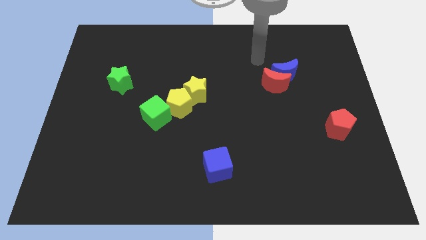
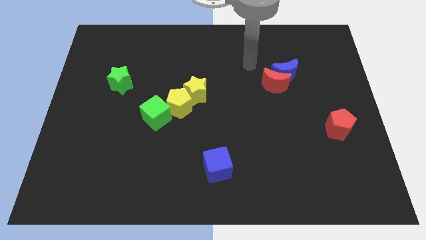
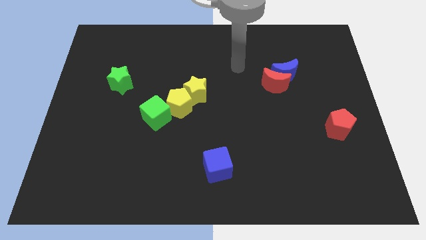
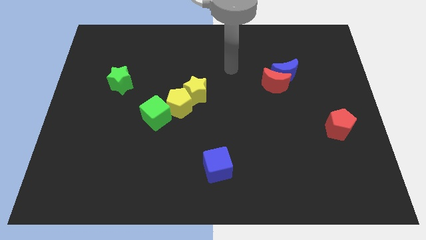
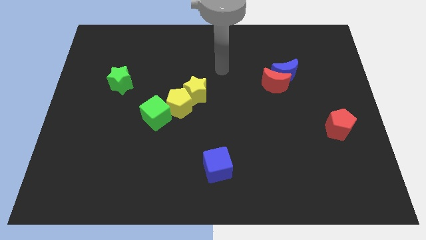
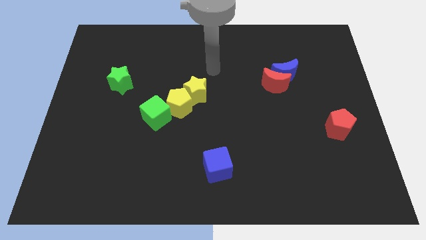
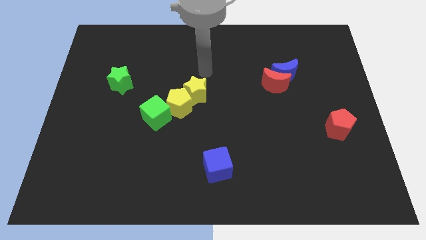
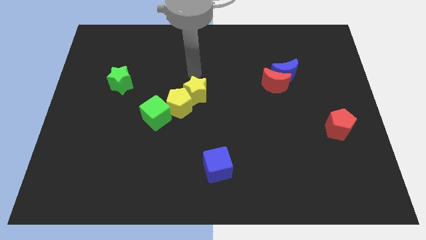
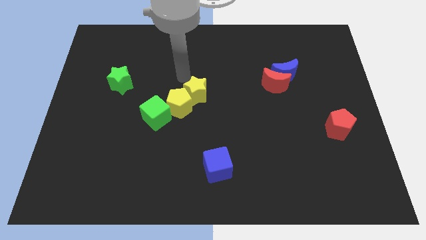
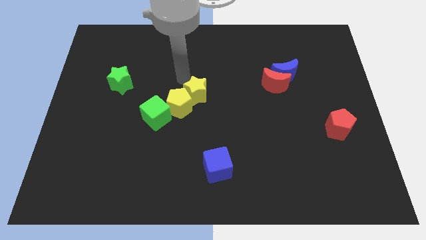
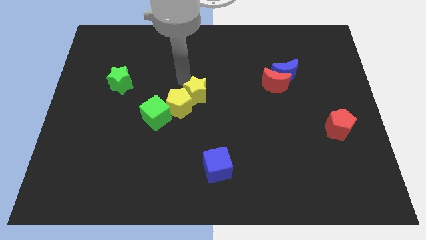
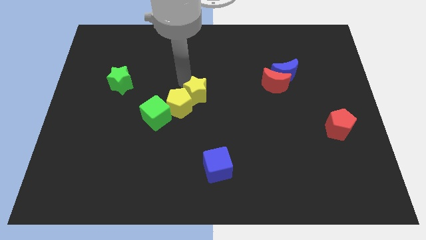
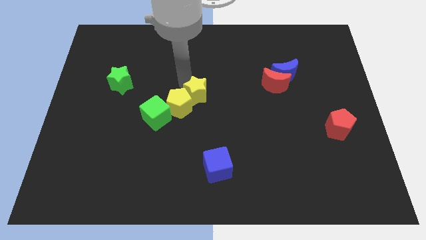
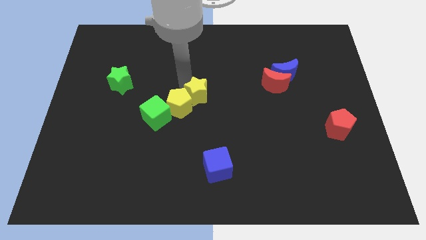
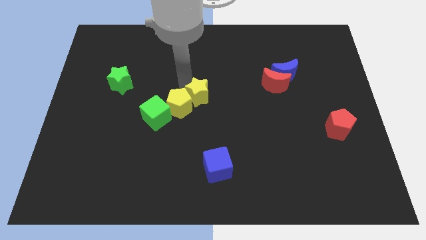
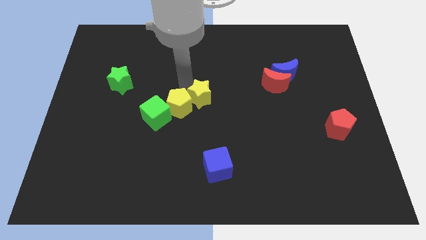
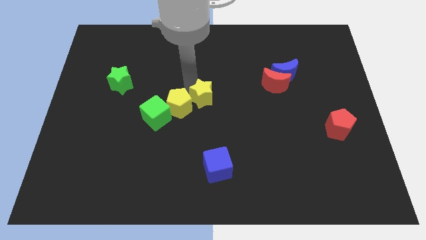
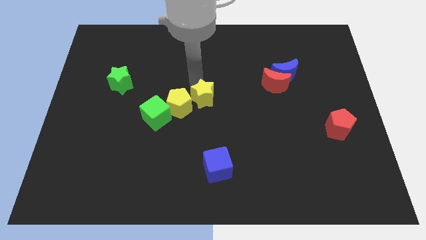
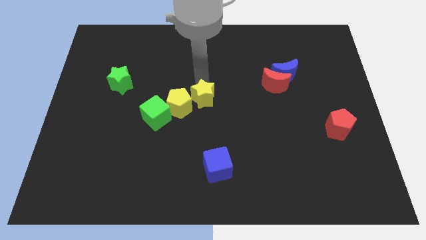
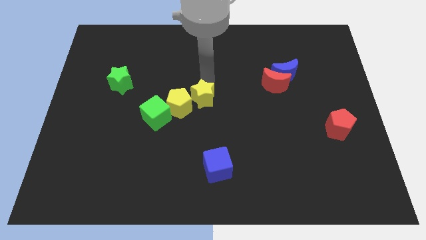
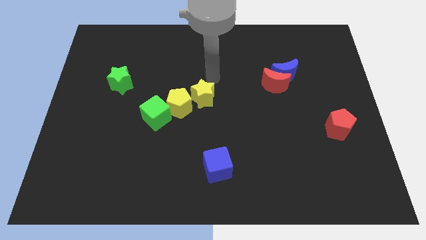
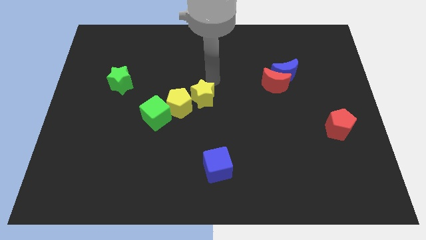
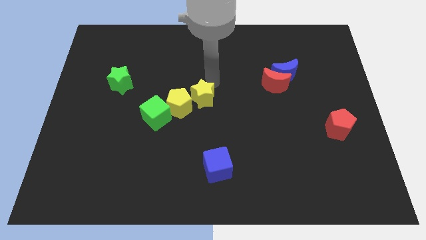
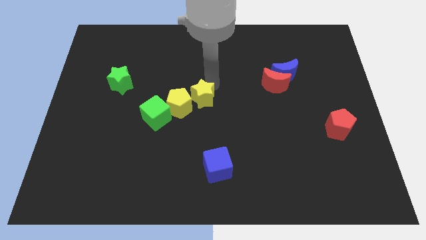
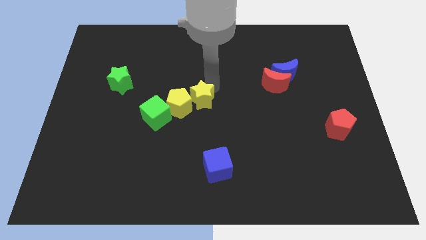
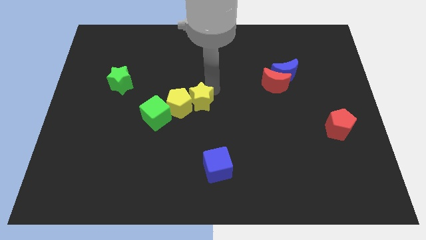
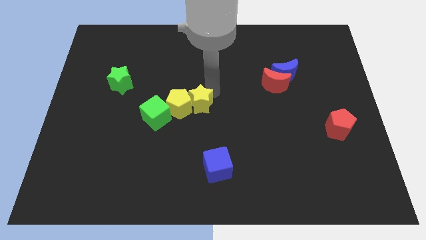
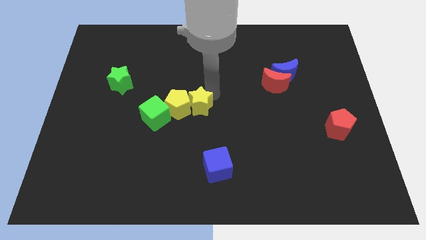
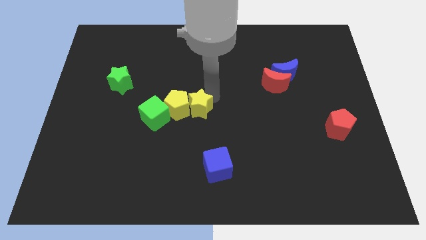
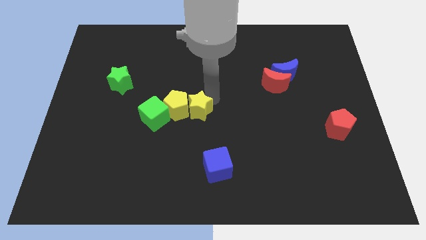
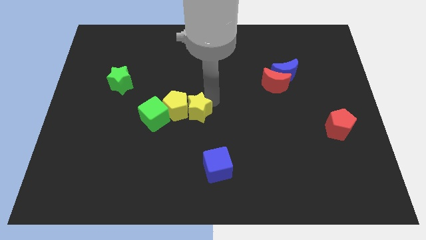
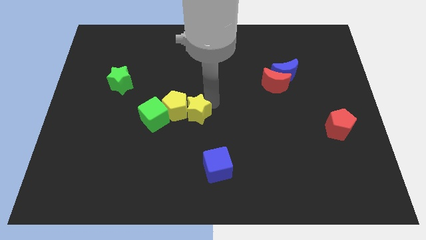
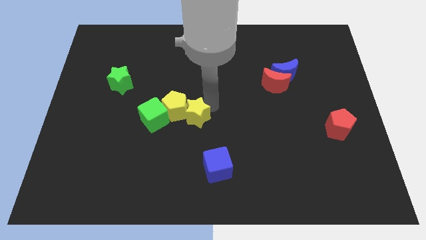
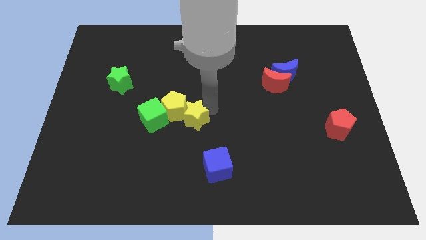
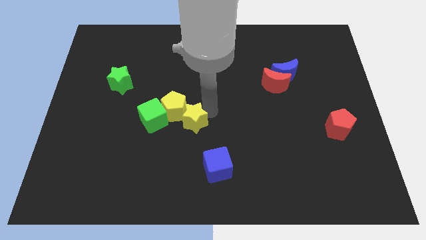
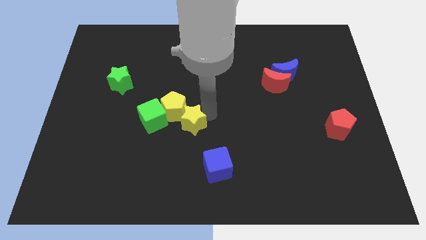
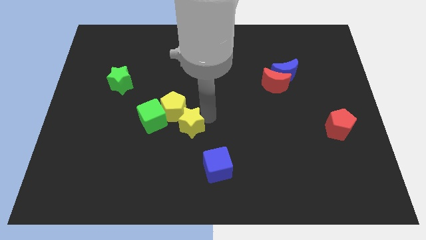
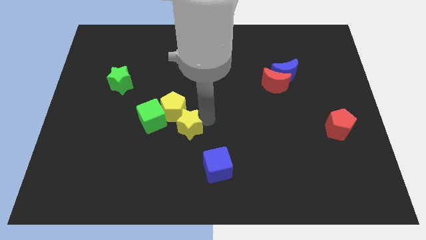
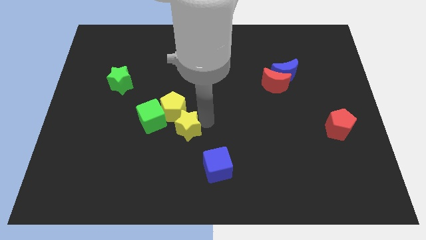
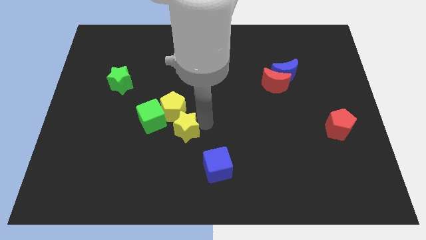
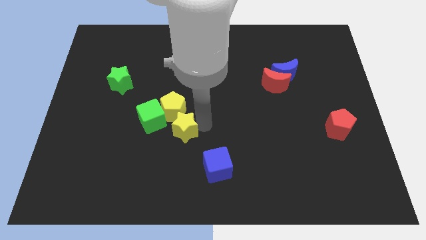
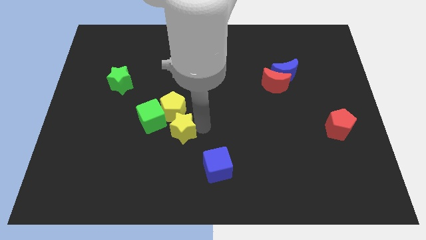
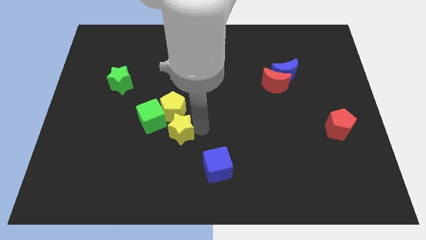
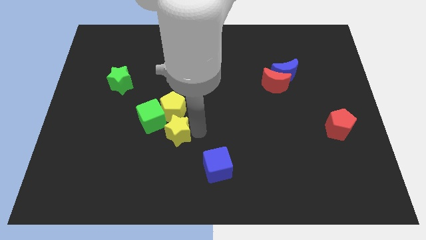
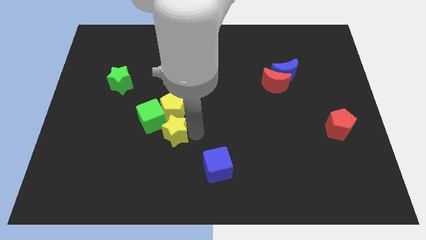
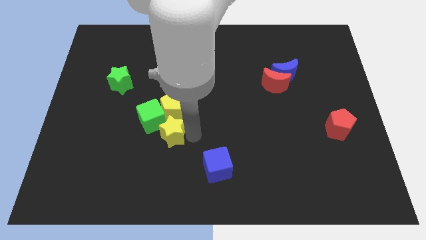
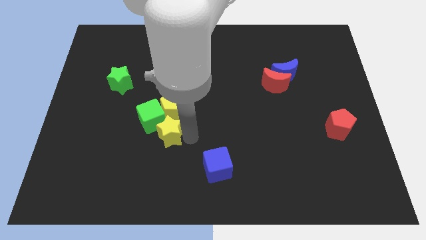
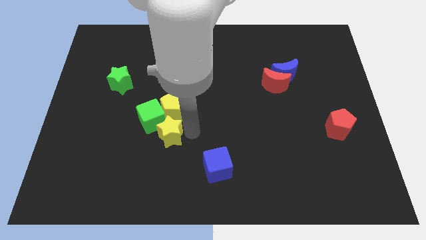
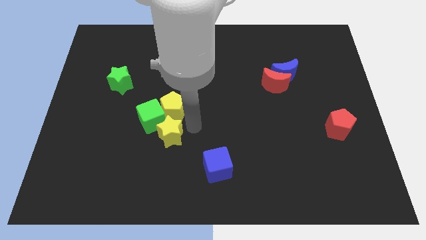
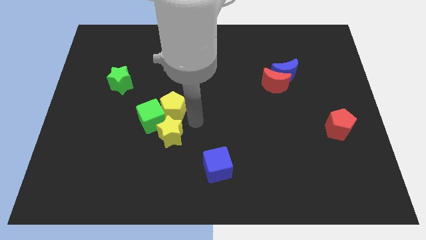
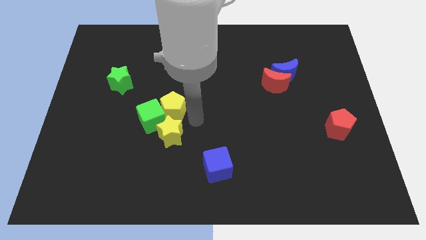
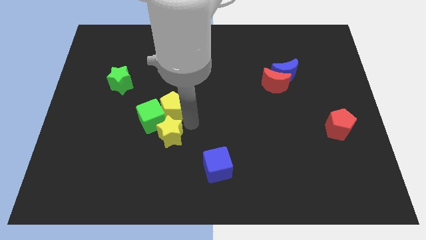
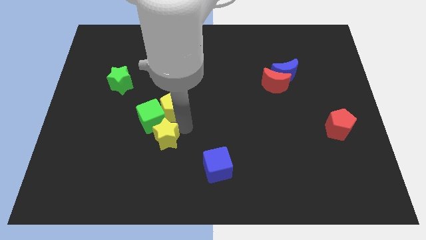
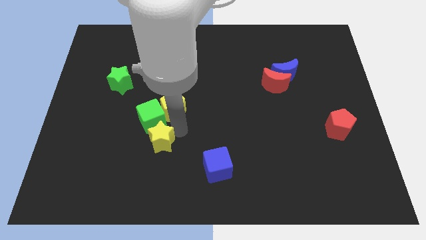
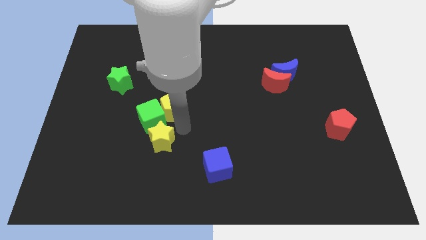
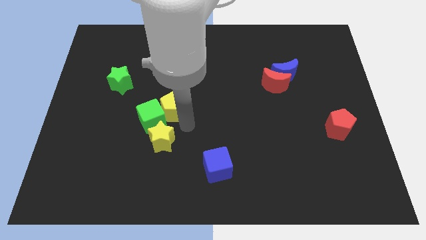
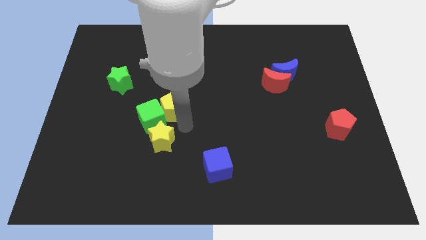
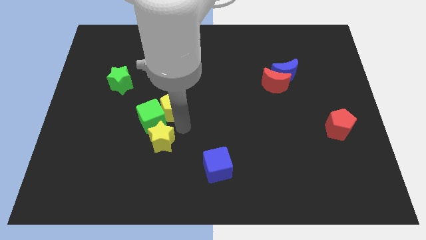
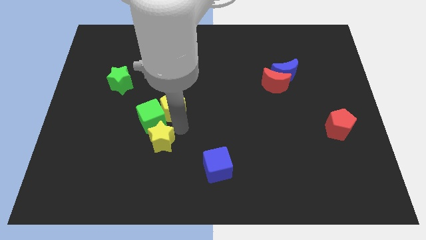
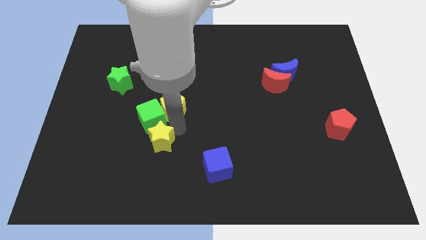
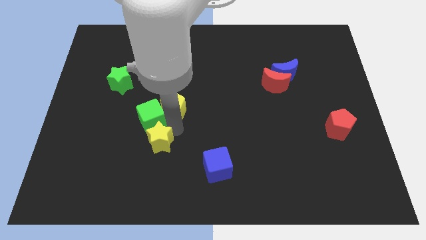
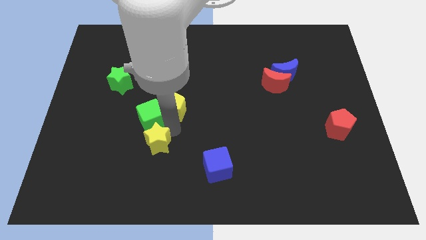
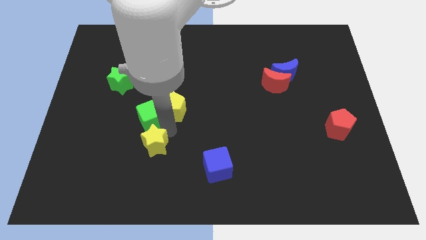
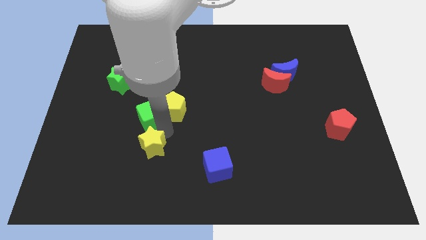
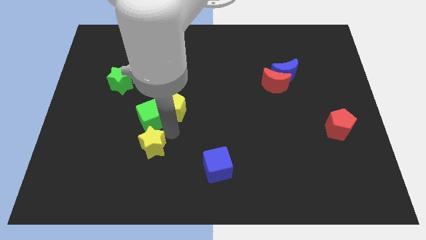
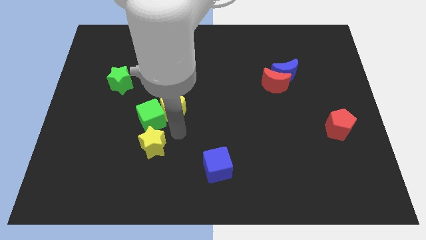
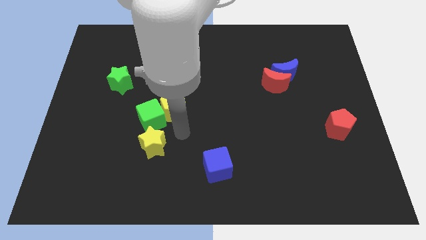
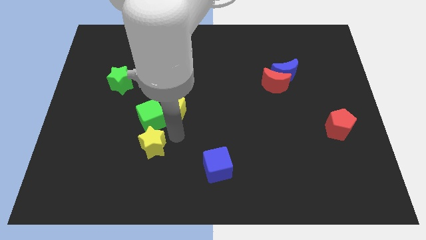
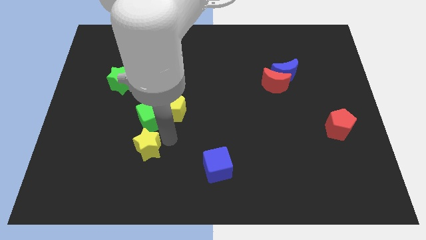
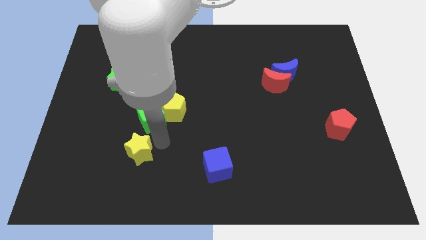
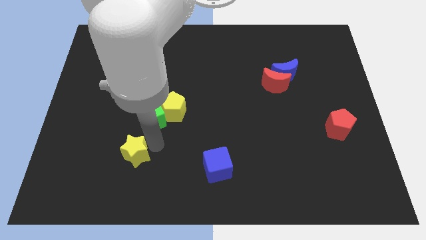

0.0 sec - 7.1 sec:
slide the yellow star downwards and then left

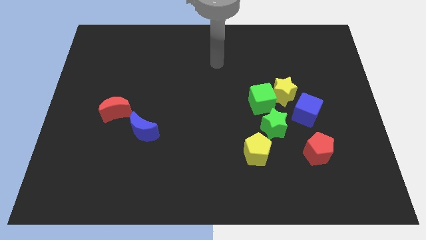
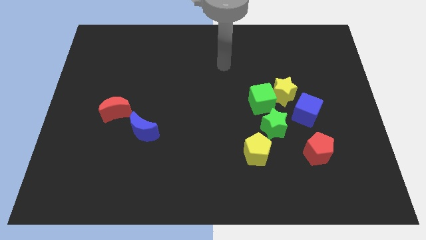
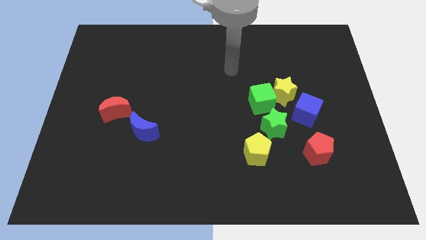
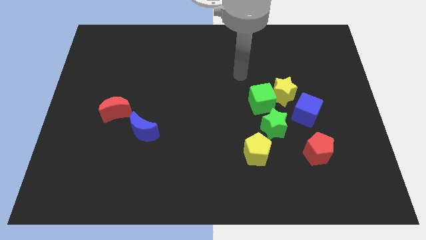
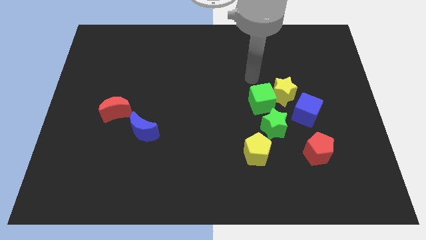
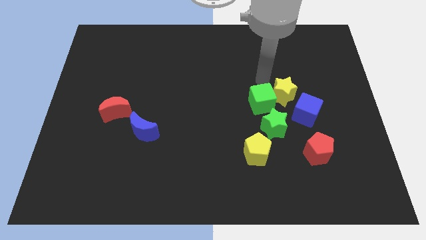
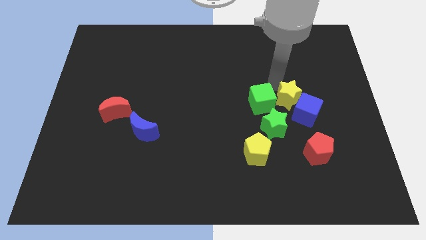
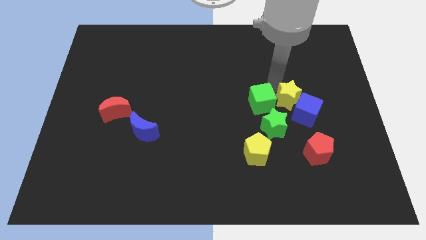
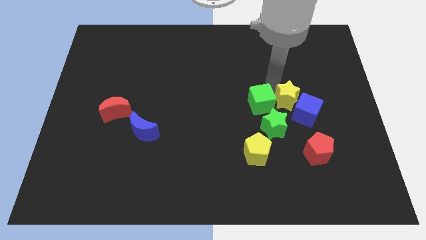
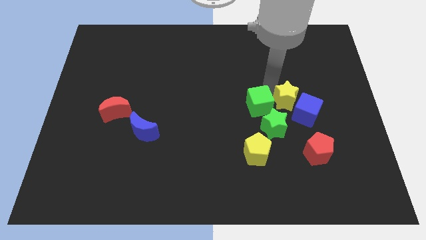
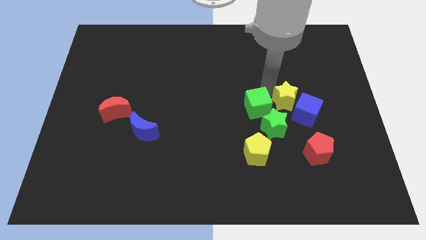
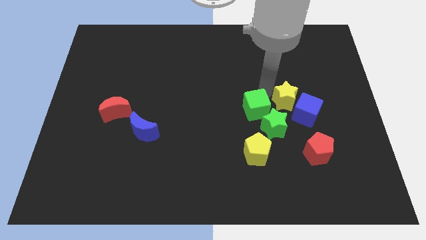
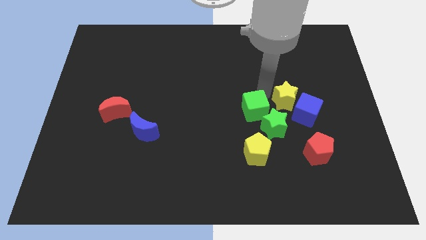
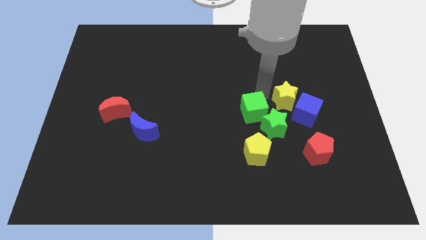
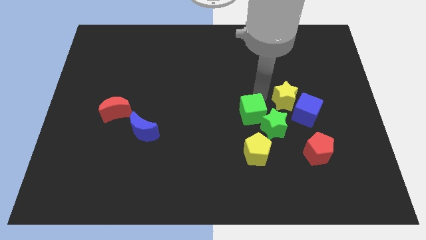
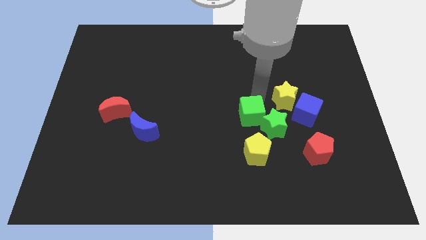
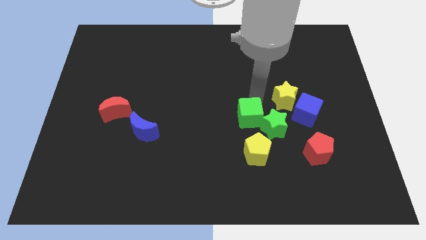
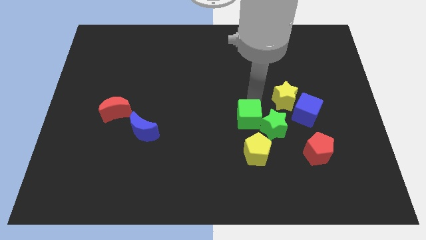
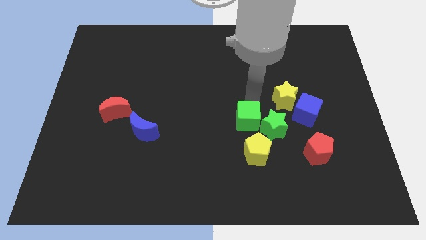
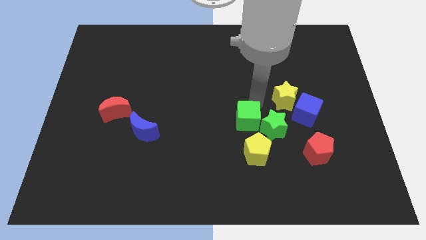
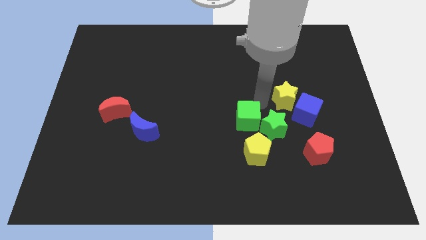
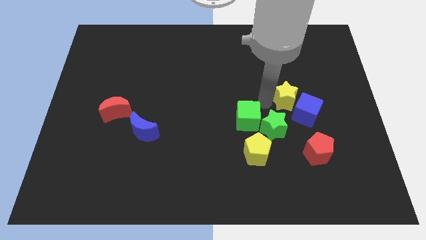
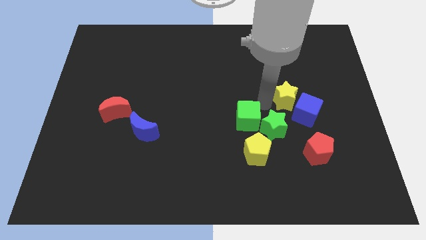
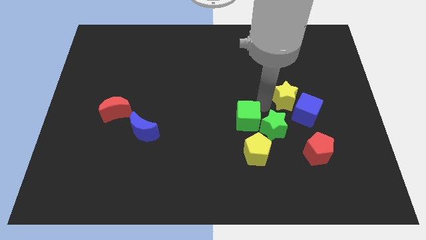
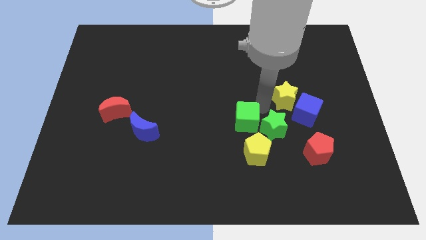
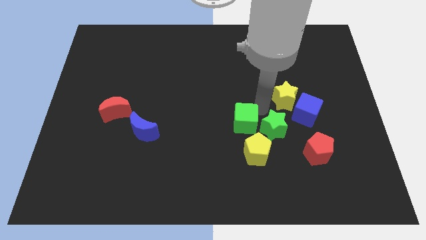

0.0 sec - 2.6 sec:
push the green cube somewhat downwards and then to the left
